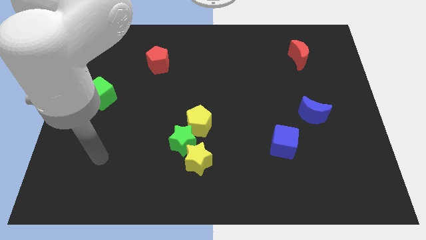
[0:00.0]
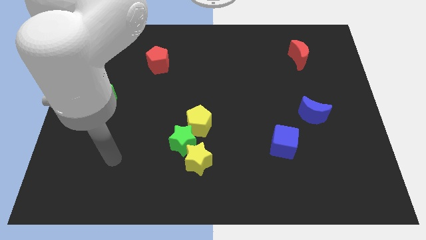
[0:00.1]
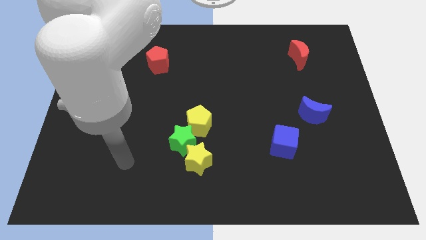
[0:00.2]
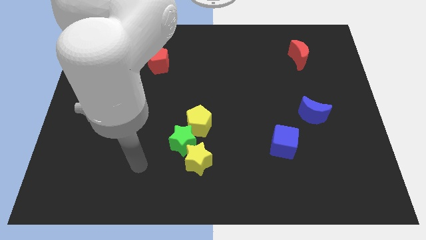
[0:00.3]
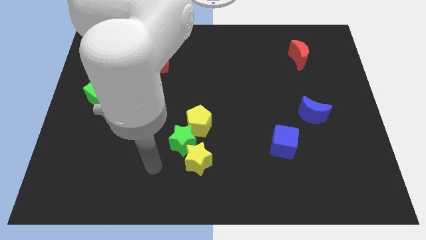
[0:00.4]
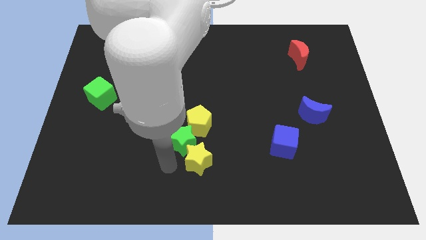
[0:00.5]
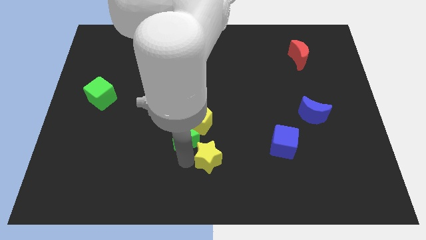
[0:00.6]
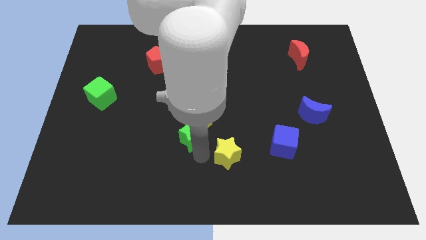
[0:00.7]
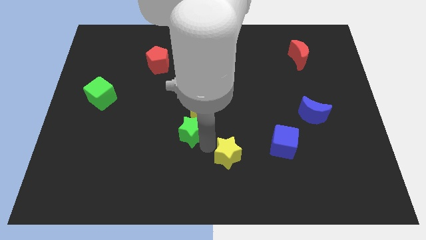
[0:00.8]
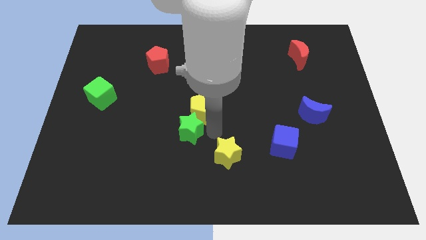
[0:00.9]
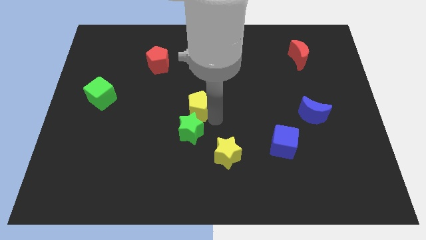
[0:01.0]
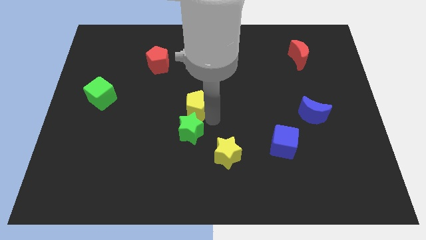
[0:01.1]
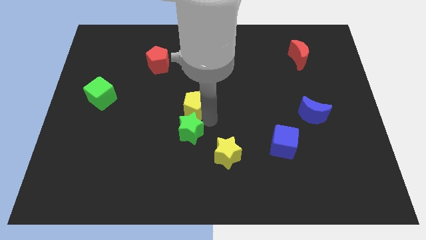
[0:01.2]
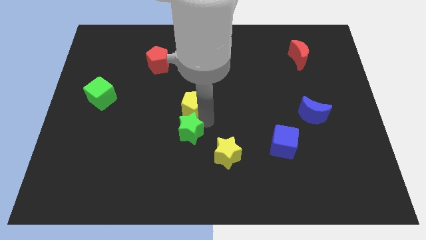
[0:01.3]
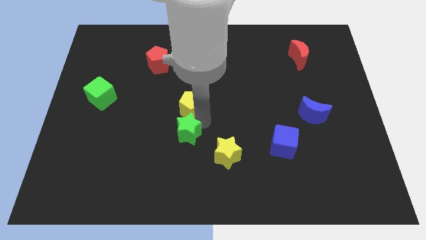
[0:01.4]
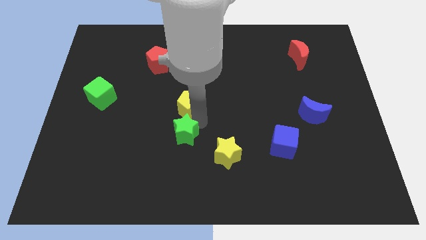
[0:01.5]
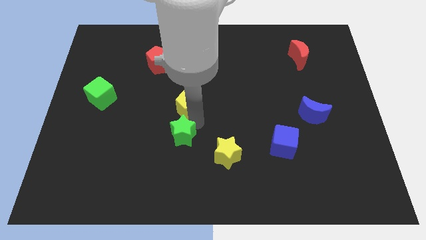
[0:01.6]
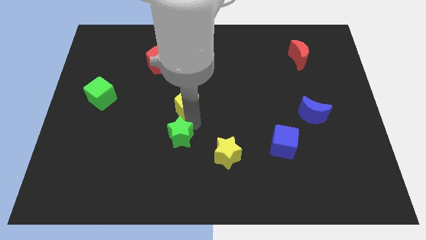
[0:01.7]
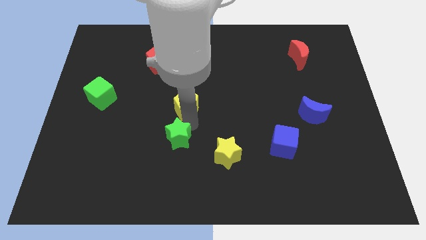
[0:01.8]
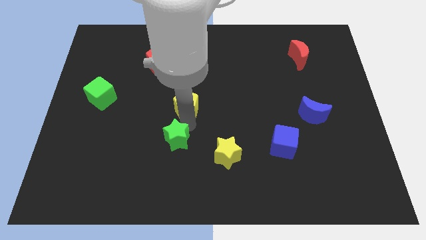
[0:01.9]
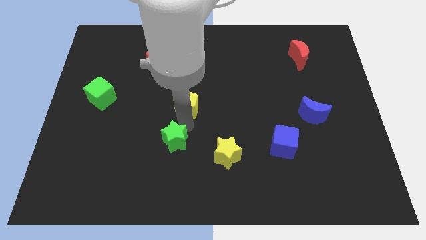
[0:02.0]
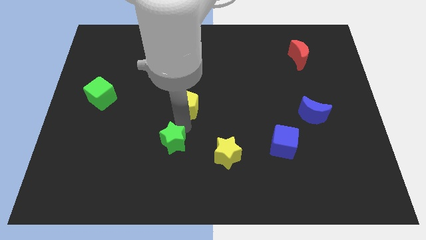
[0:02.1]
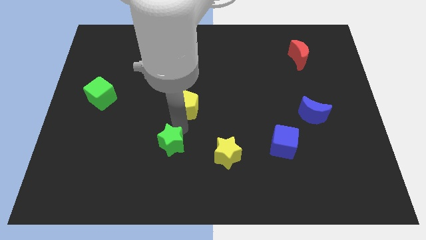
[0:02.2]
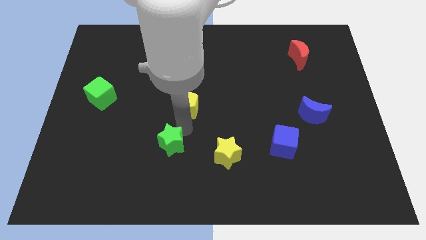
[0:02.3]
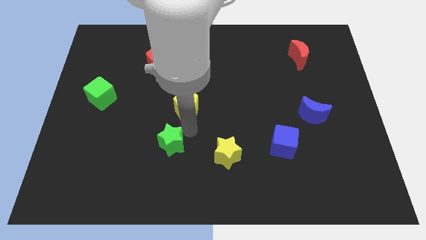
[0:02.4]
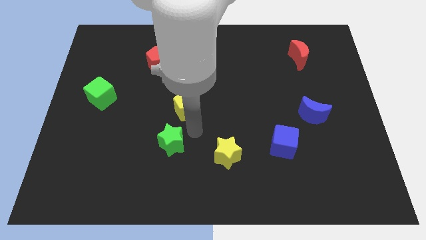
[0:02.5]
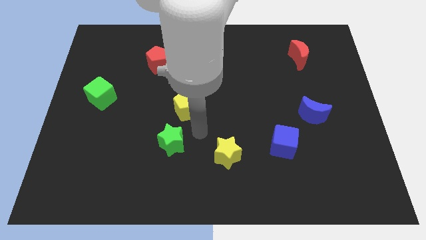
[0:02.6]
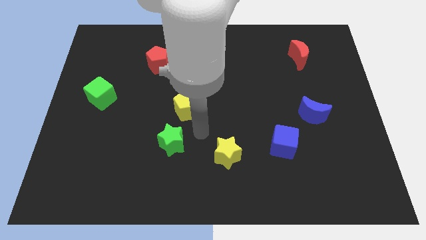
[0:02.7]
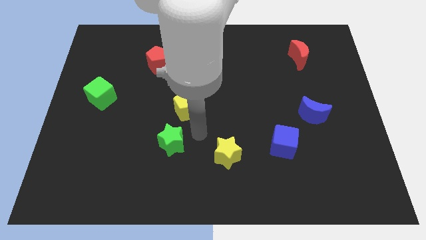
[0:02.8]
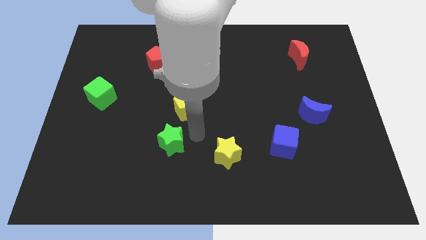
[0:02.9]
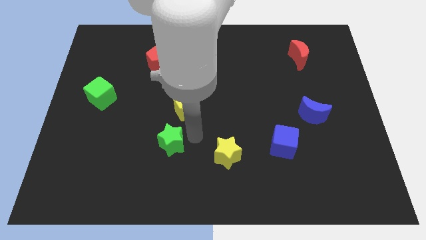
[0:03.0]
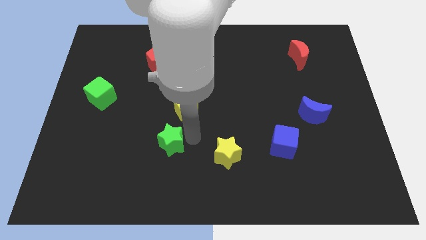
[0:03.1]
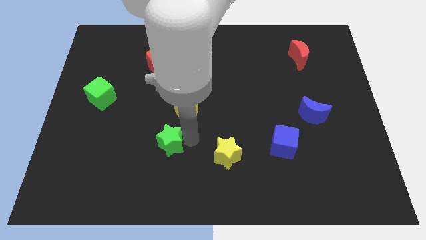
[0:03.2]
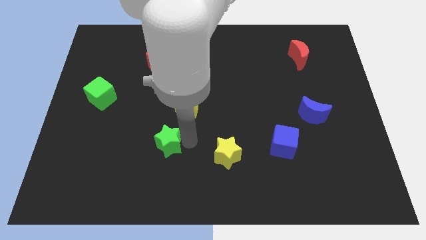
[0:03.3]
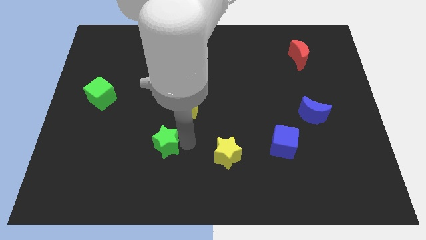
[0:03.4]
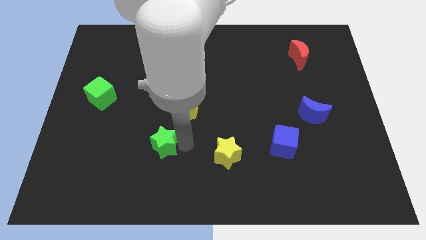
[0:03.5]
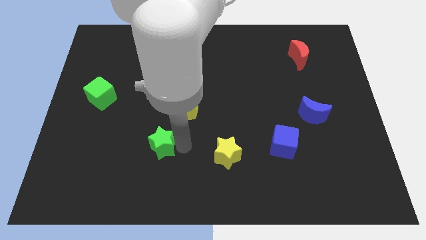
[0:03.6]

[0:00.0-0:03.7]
pull the green star apart from the yellow star and yellow pentagon

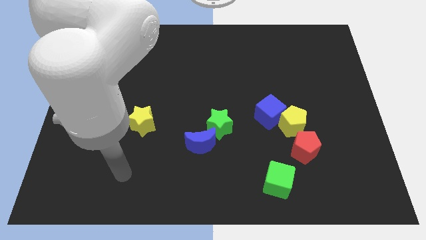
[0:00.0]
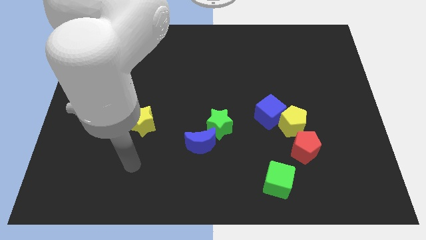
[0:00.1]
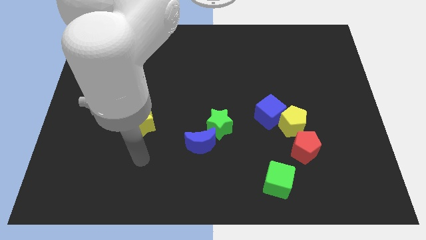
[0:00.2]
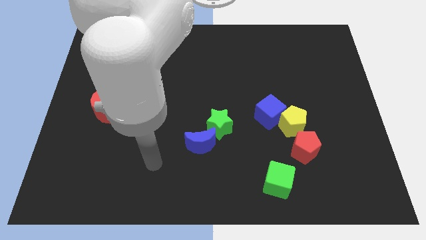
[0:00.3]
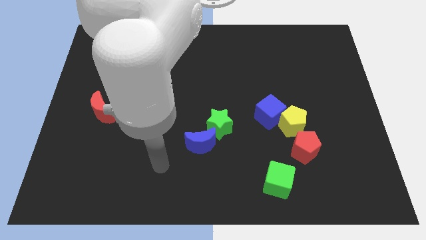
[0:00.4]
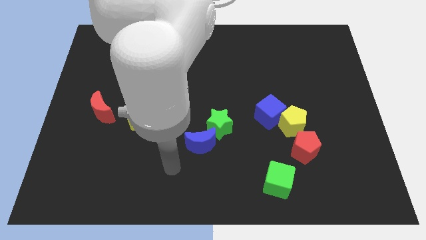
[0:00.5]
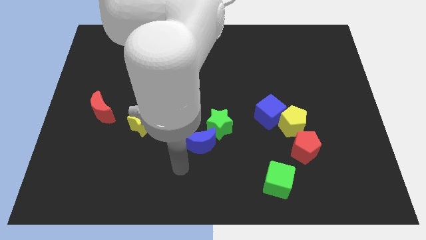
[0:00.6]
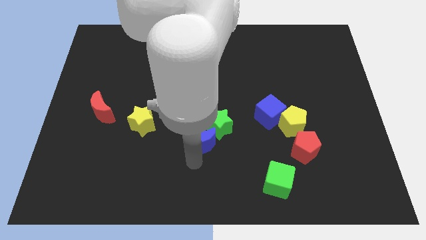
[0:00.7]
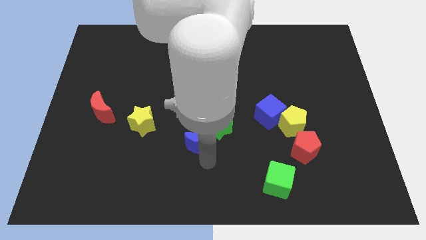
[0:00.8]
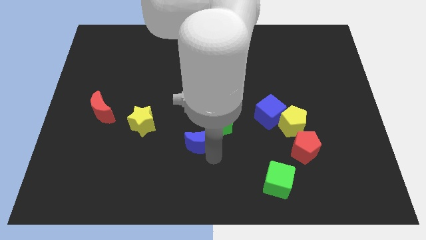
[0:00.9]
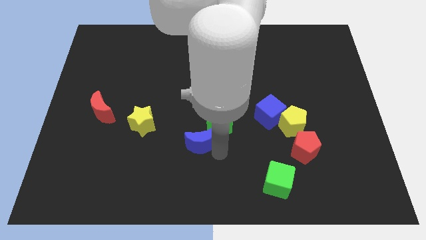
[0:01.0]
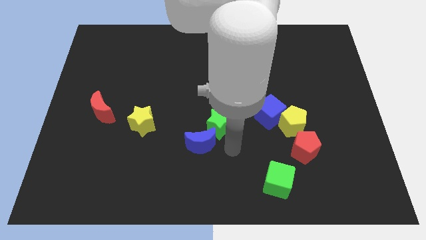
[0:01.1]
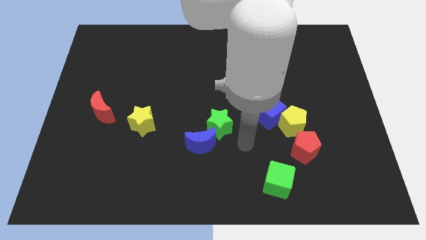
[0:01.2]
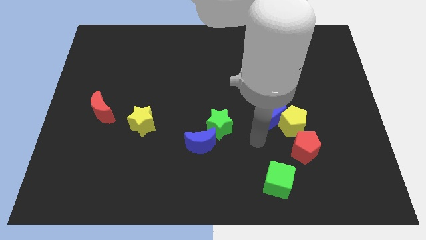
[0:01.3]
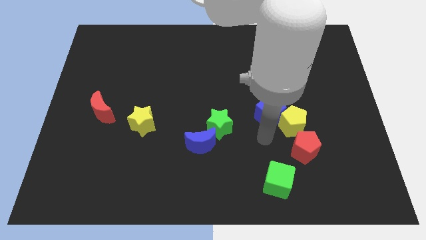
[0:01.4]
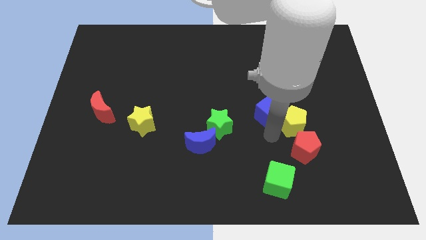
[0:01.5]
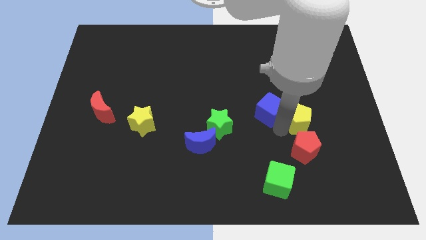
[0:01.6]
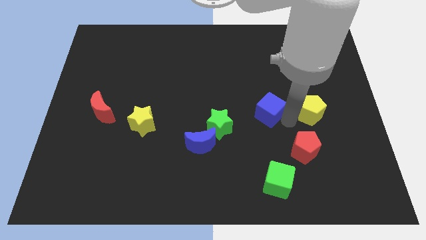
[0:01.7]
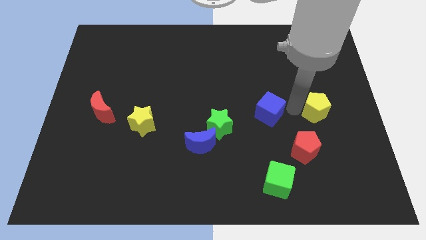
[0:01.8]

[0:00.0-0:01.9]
separate the blue cube from the yellow pentagon

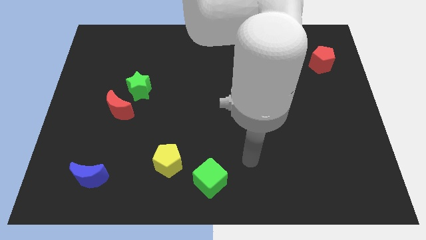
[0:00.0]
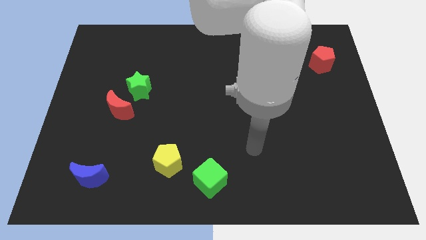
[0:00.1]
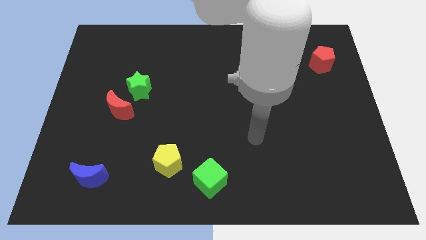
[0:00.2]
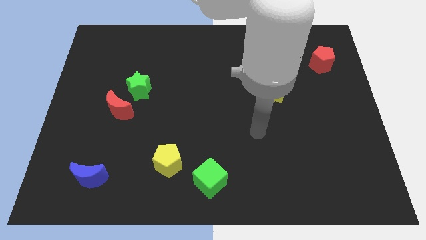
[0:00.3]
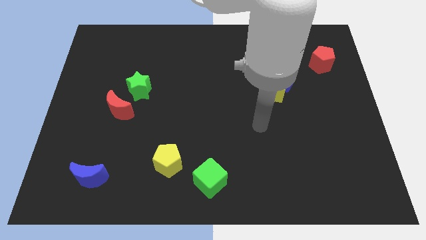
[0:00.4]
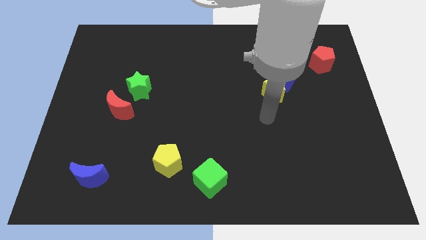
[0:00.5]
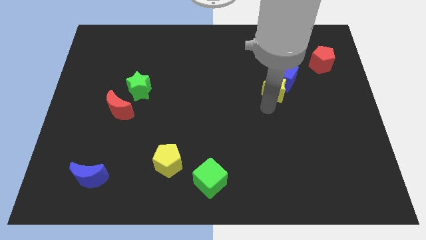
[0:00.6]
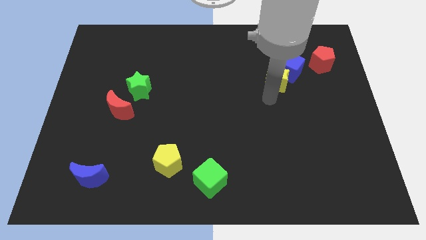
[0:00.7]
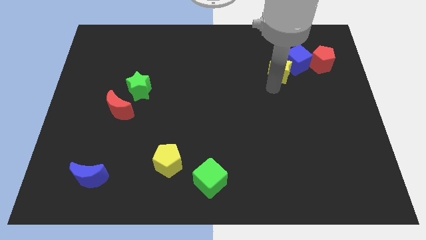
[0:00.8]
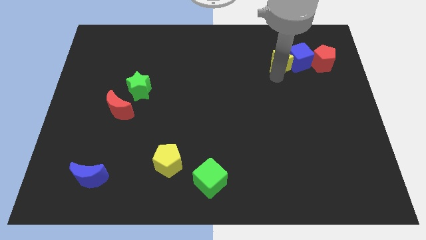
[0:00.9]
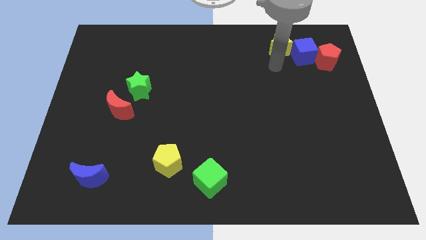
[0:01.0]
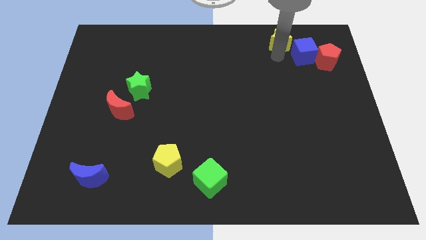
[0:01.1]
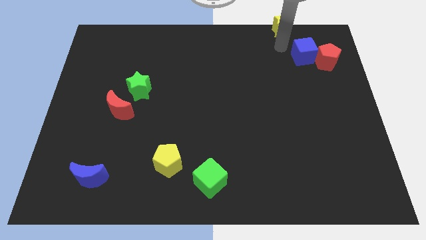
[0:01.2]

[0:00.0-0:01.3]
pull the blue cube apart from the yellow star

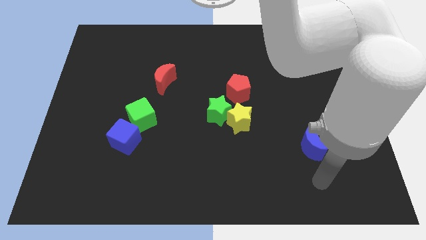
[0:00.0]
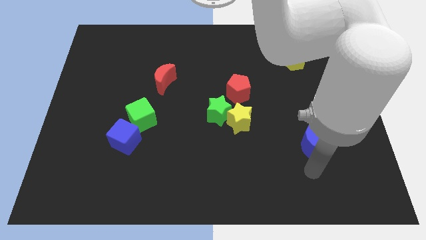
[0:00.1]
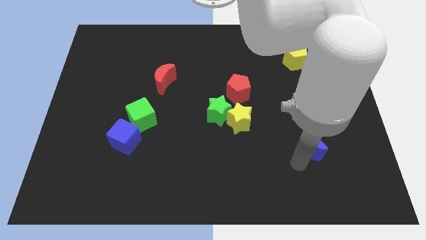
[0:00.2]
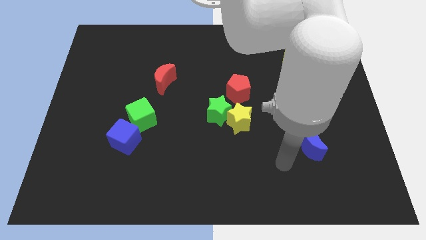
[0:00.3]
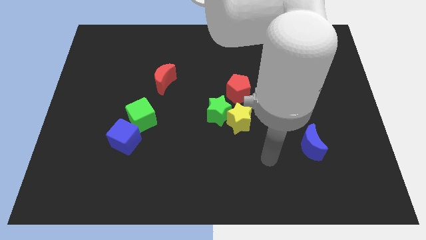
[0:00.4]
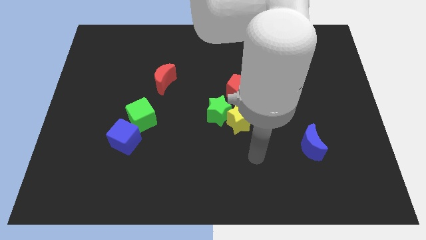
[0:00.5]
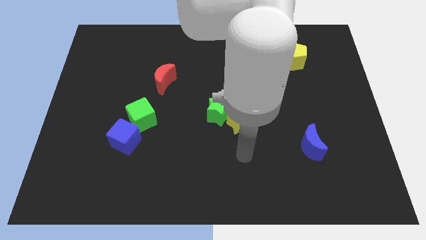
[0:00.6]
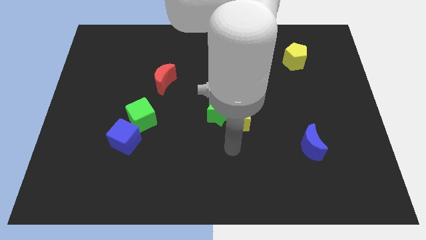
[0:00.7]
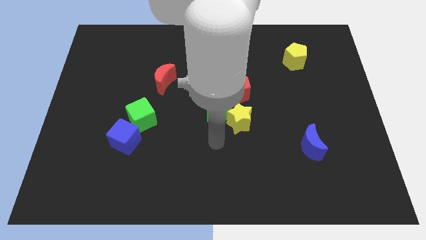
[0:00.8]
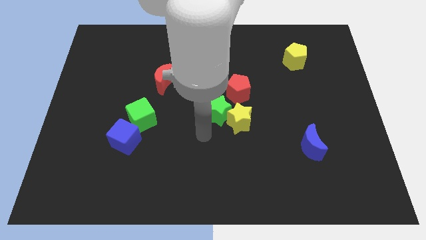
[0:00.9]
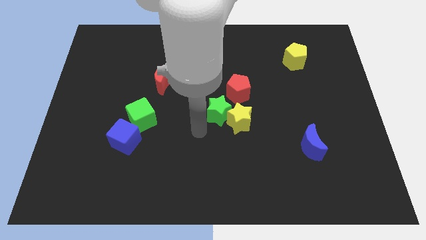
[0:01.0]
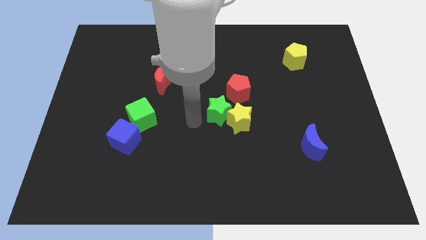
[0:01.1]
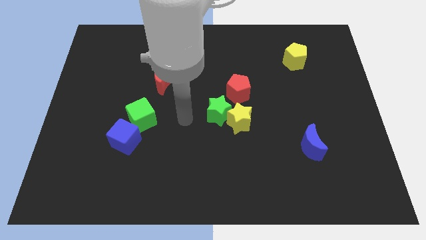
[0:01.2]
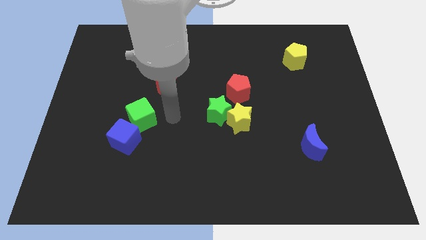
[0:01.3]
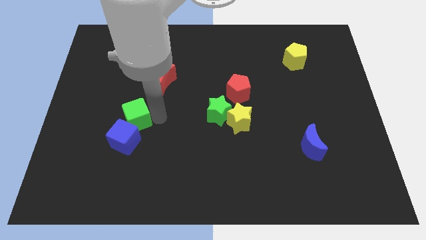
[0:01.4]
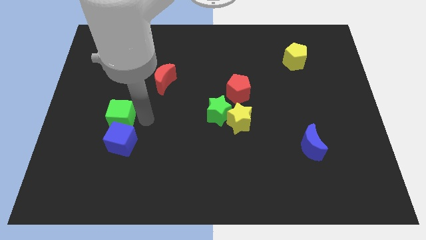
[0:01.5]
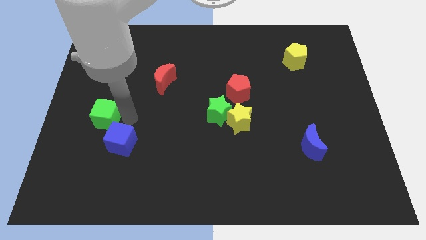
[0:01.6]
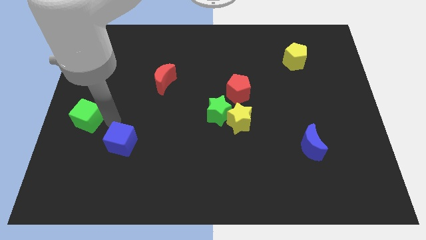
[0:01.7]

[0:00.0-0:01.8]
move the blue cube away from the green cube

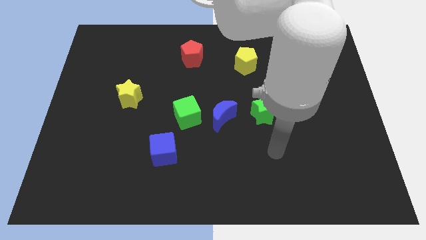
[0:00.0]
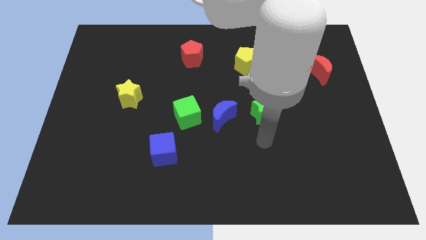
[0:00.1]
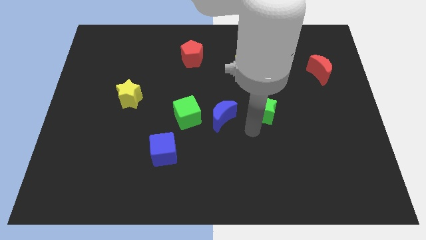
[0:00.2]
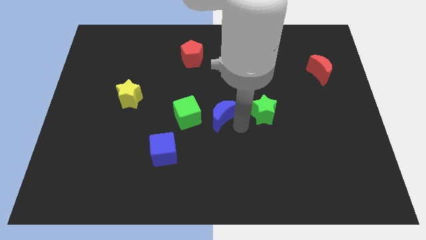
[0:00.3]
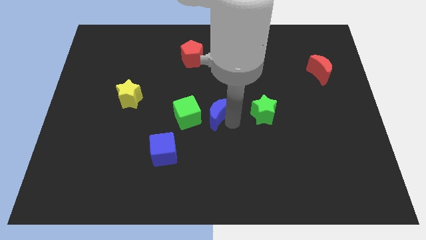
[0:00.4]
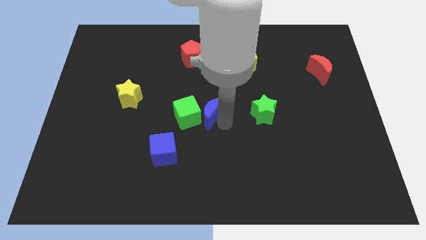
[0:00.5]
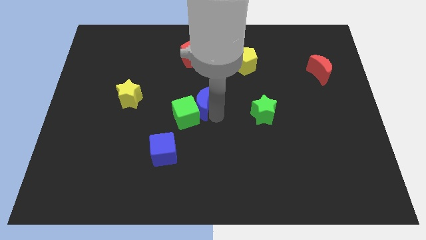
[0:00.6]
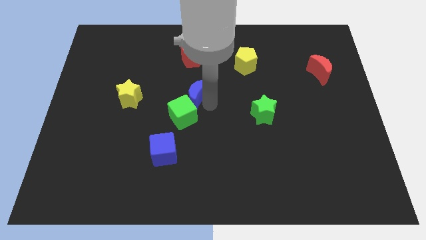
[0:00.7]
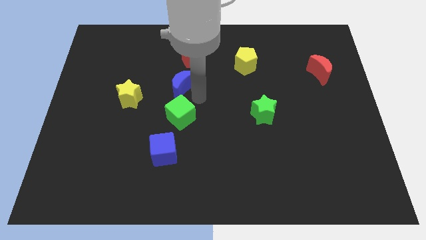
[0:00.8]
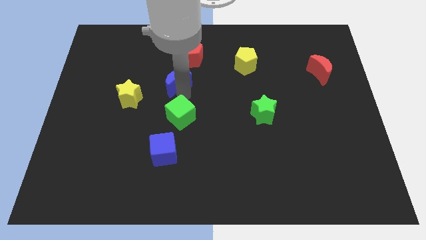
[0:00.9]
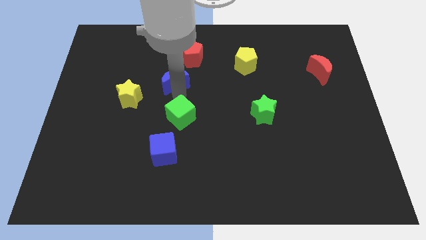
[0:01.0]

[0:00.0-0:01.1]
move the green cube away from the blue moon
